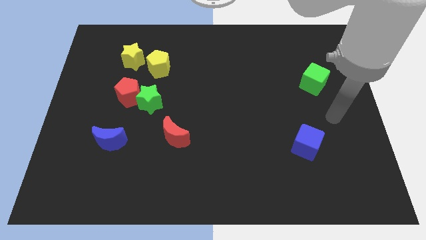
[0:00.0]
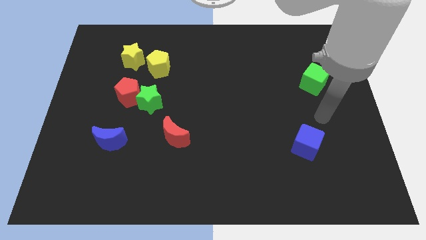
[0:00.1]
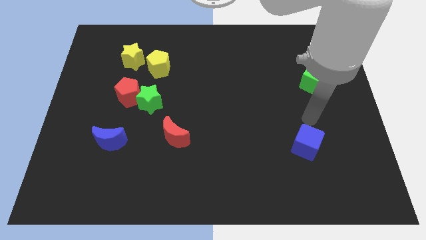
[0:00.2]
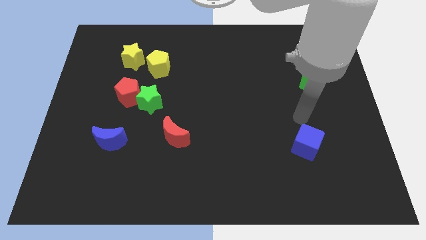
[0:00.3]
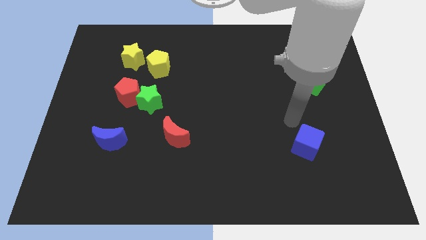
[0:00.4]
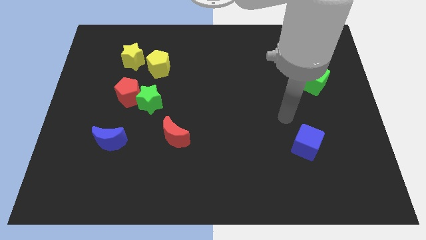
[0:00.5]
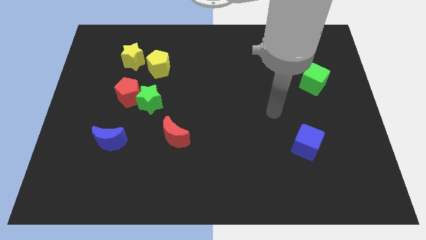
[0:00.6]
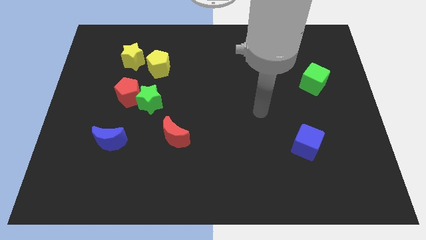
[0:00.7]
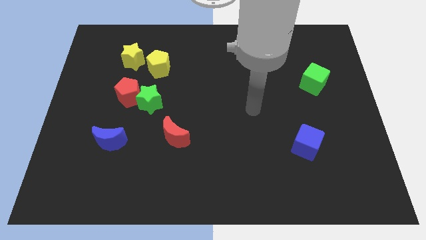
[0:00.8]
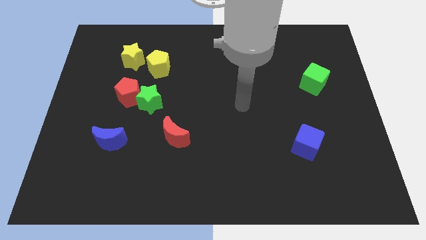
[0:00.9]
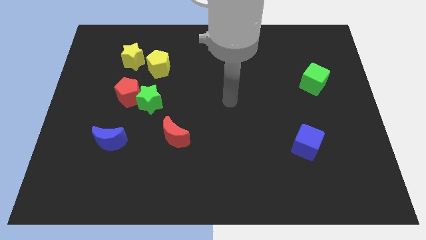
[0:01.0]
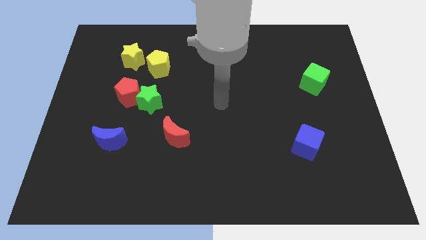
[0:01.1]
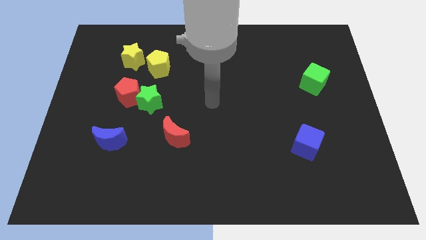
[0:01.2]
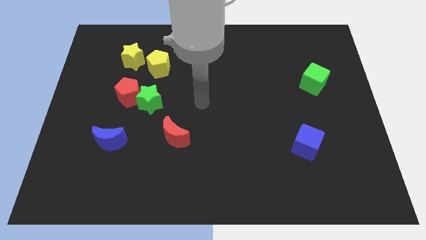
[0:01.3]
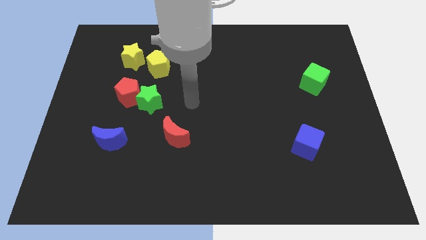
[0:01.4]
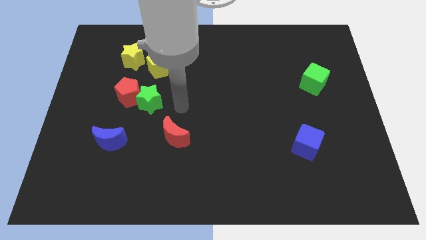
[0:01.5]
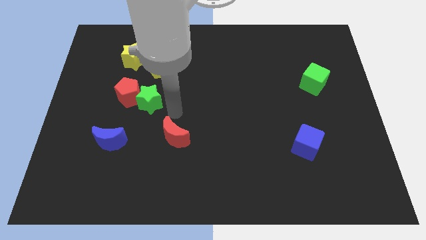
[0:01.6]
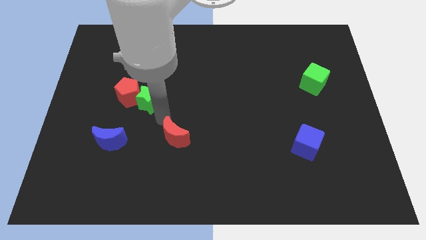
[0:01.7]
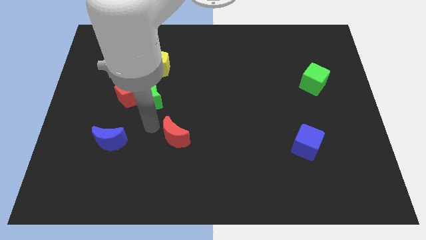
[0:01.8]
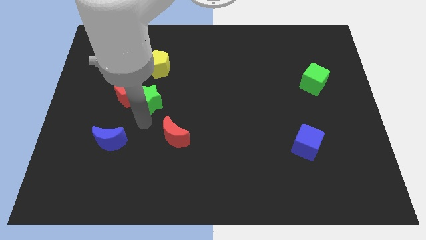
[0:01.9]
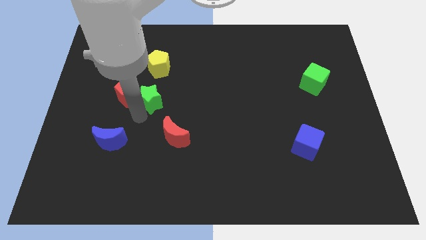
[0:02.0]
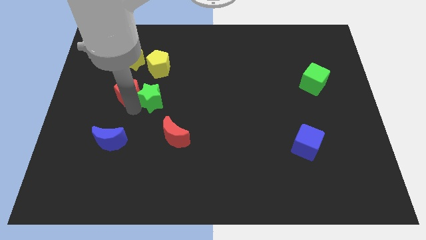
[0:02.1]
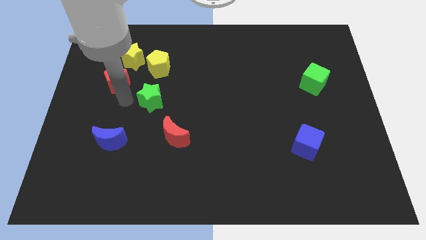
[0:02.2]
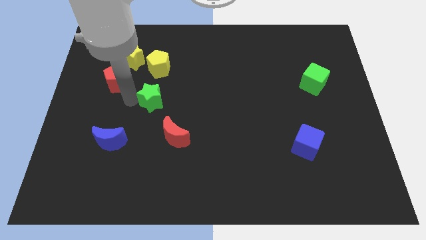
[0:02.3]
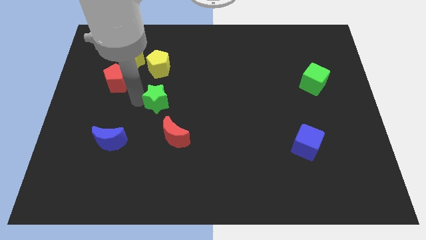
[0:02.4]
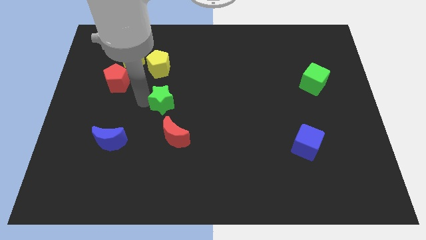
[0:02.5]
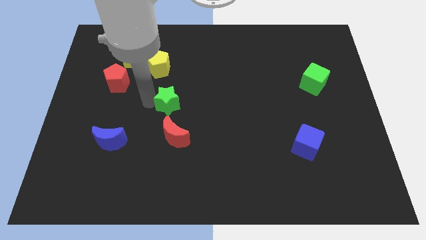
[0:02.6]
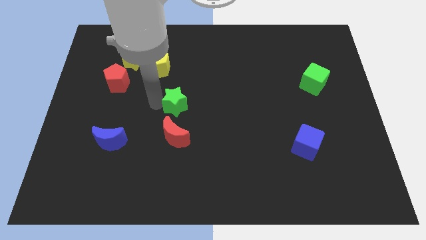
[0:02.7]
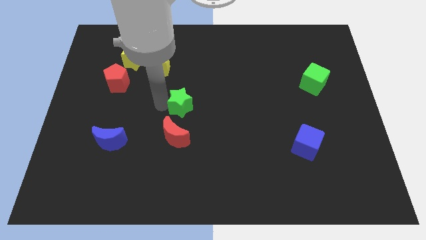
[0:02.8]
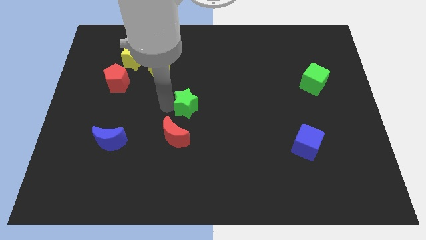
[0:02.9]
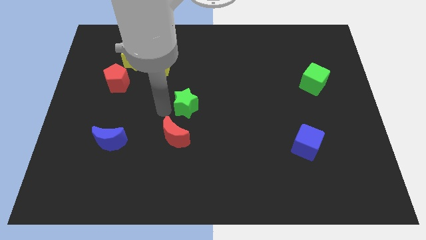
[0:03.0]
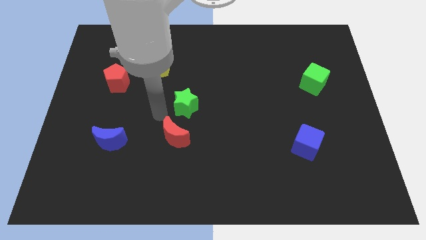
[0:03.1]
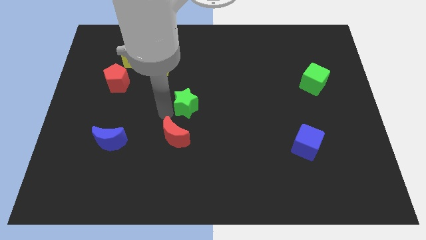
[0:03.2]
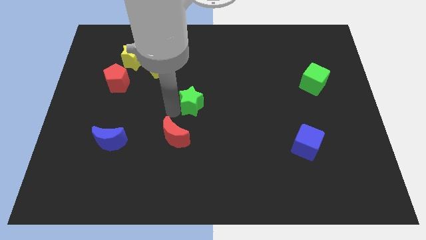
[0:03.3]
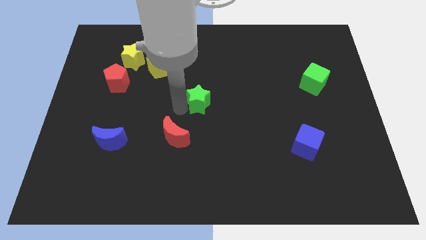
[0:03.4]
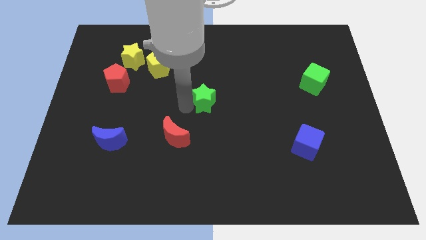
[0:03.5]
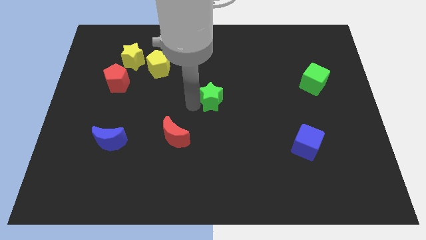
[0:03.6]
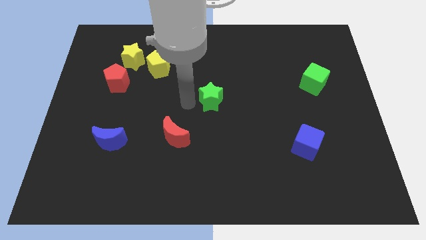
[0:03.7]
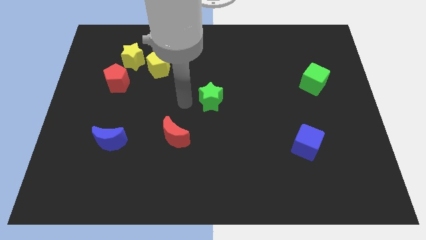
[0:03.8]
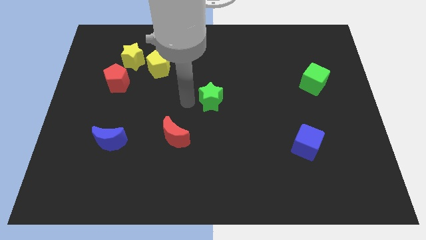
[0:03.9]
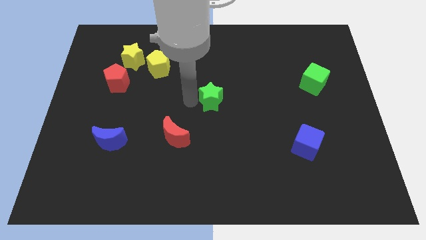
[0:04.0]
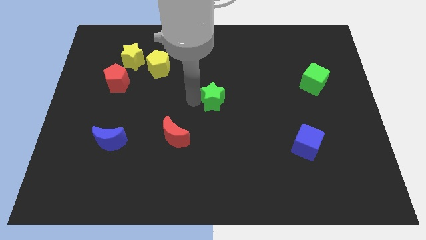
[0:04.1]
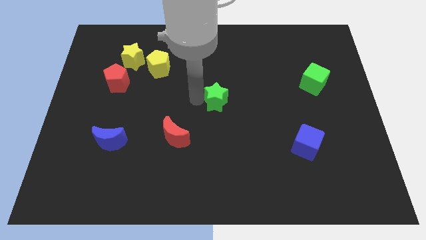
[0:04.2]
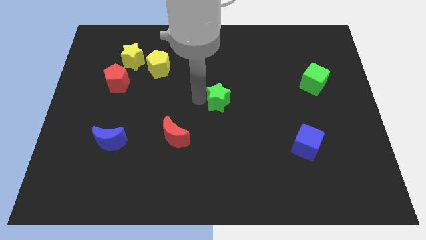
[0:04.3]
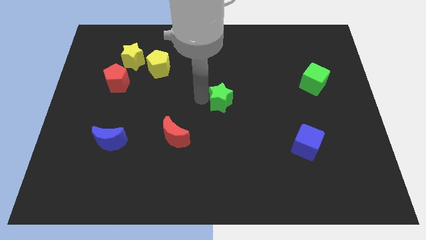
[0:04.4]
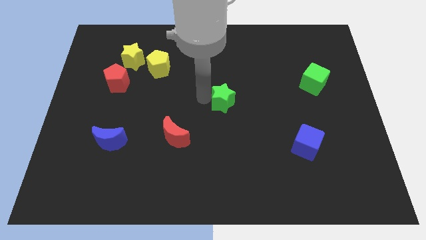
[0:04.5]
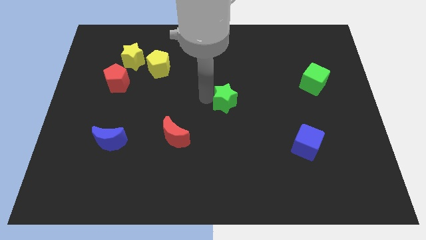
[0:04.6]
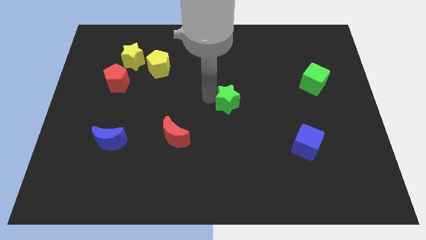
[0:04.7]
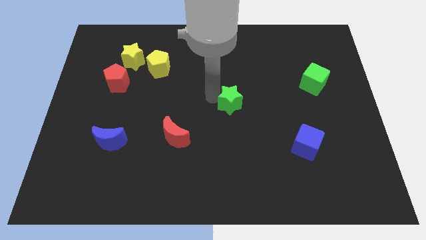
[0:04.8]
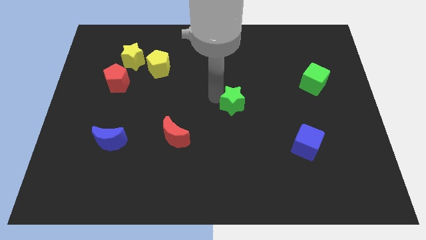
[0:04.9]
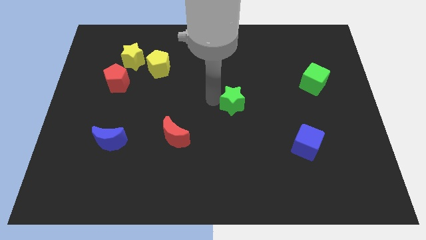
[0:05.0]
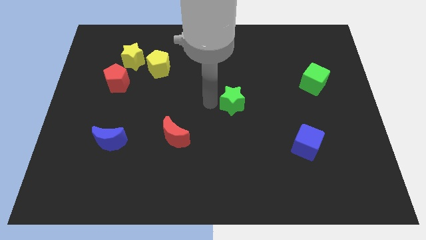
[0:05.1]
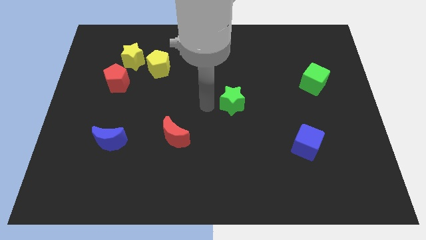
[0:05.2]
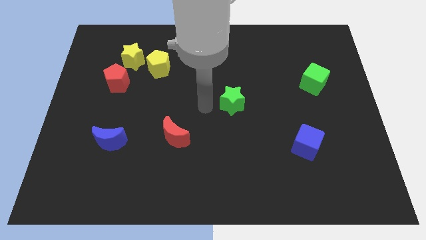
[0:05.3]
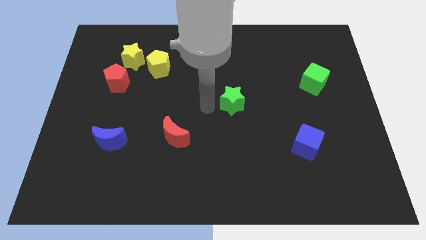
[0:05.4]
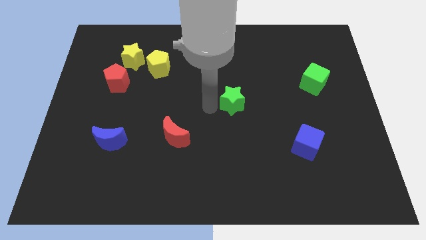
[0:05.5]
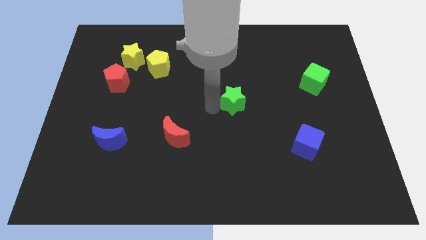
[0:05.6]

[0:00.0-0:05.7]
push the green star to the right

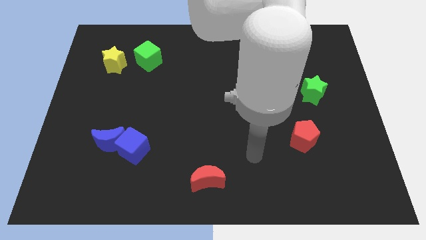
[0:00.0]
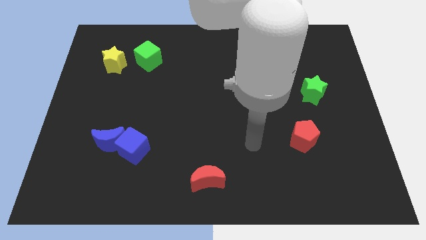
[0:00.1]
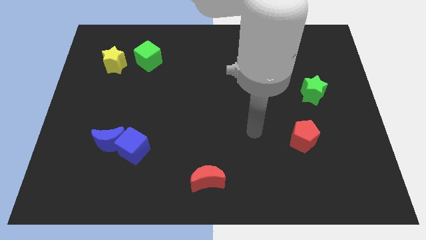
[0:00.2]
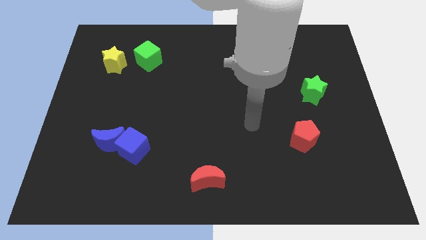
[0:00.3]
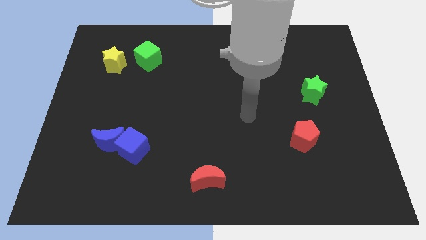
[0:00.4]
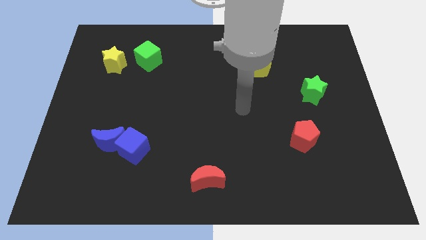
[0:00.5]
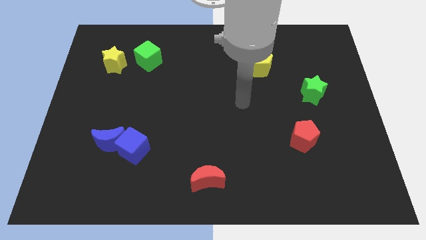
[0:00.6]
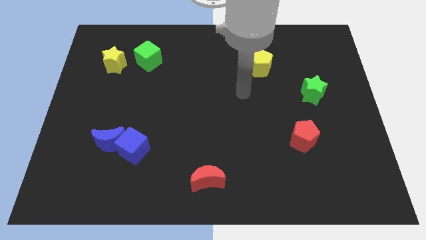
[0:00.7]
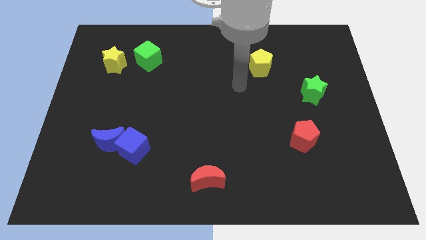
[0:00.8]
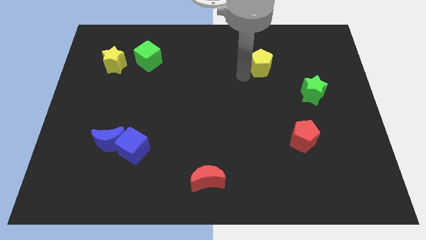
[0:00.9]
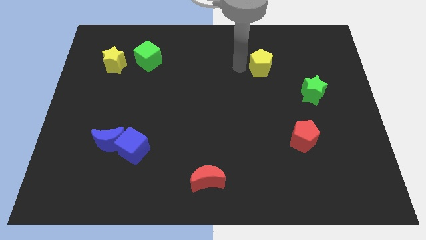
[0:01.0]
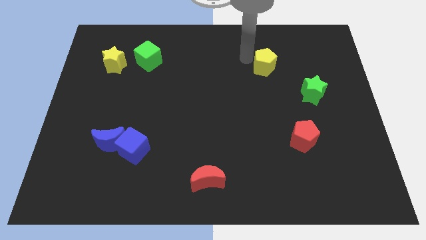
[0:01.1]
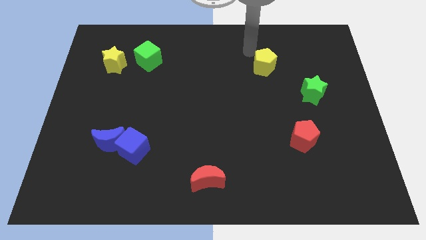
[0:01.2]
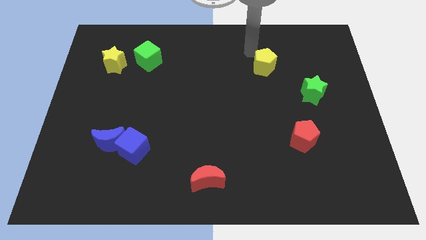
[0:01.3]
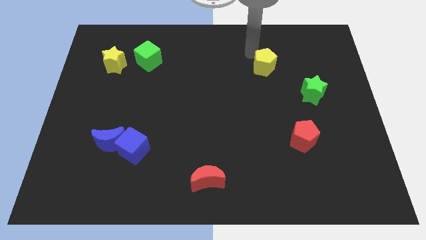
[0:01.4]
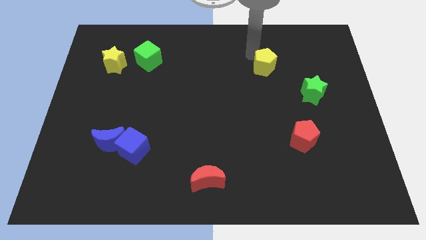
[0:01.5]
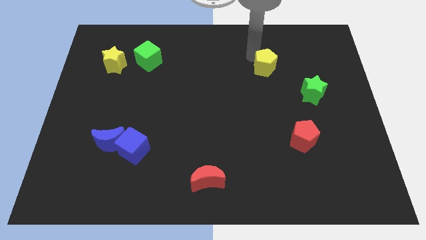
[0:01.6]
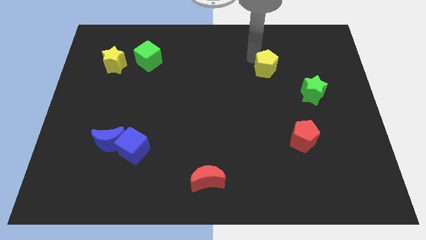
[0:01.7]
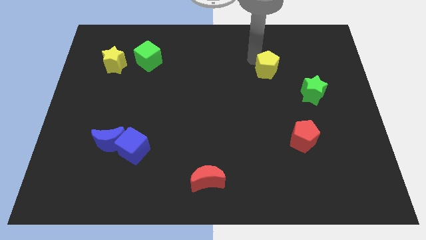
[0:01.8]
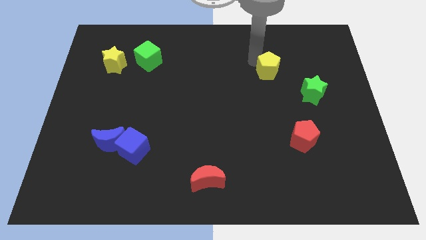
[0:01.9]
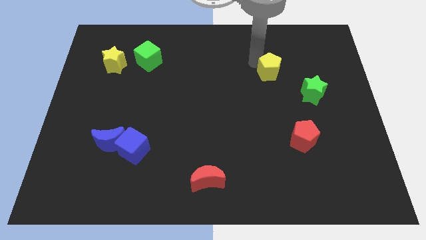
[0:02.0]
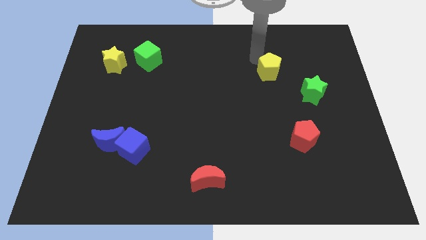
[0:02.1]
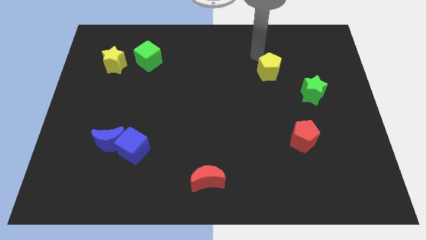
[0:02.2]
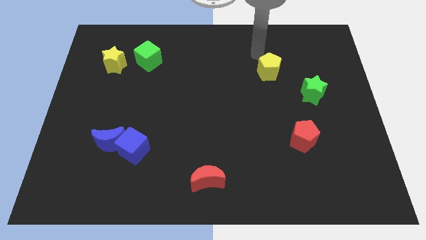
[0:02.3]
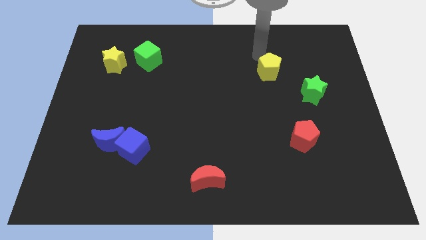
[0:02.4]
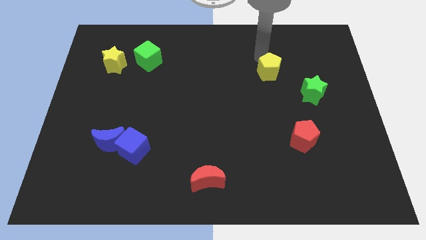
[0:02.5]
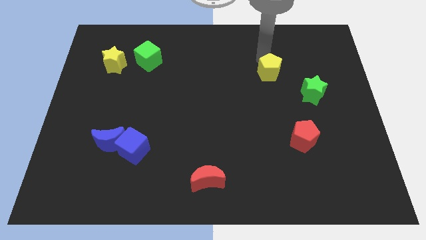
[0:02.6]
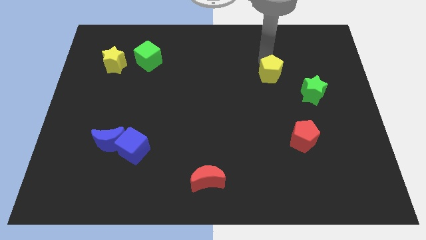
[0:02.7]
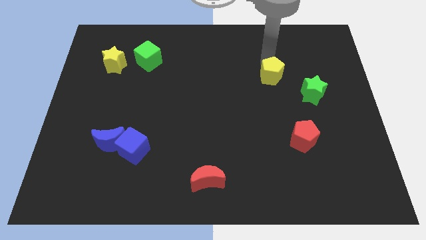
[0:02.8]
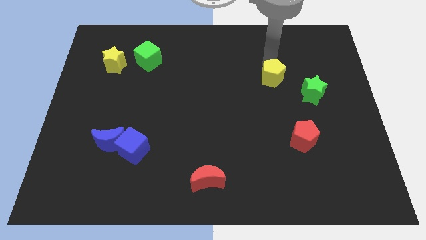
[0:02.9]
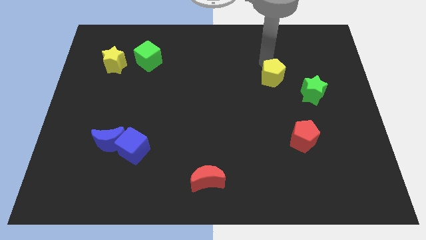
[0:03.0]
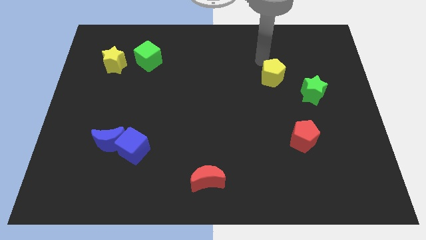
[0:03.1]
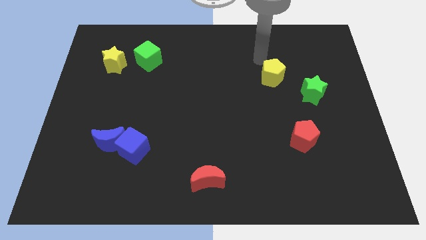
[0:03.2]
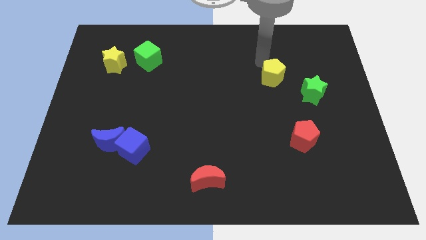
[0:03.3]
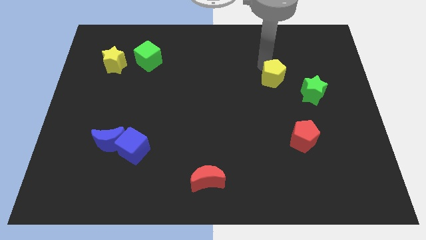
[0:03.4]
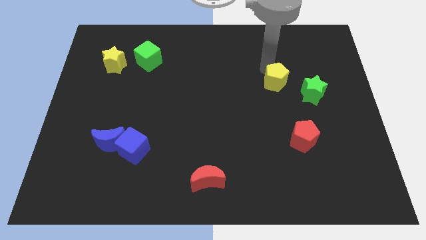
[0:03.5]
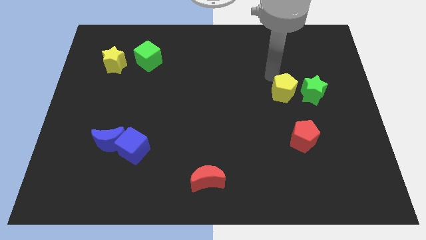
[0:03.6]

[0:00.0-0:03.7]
slide the yellow pentagon downwards and to the right diagonally somewhat
